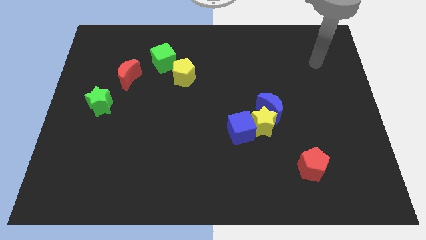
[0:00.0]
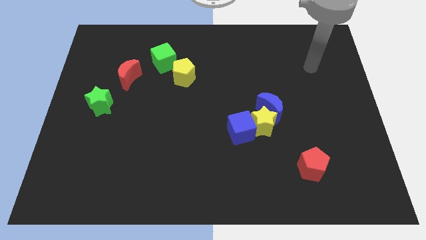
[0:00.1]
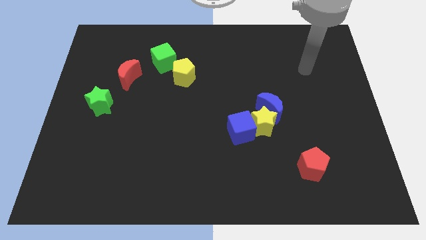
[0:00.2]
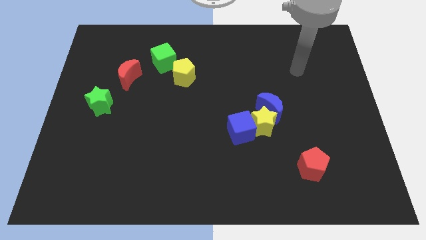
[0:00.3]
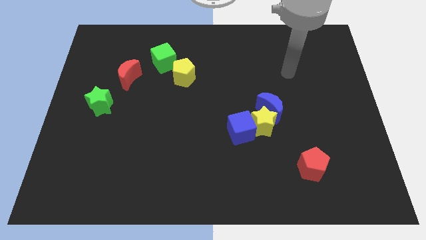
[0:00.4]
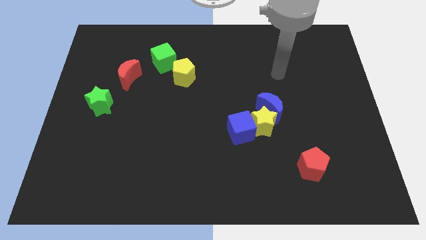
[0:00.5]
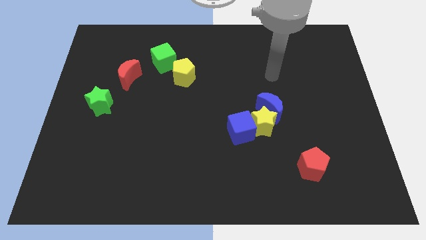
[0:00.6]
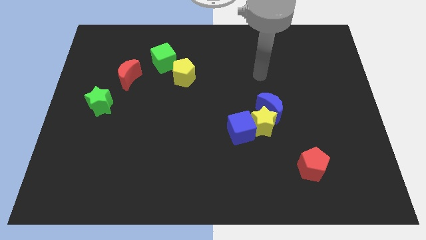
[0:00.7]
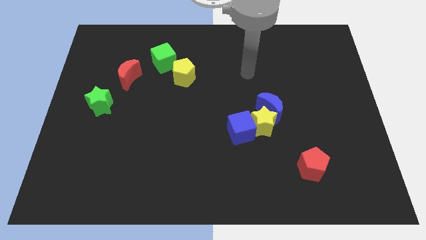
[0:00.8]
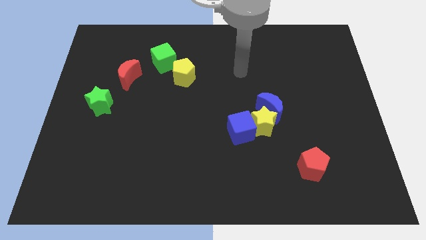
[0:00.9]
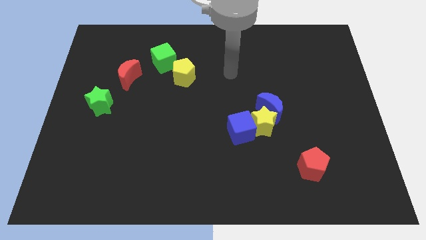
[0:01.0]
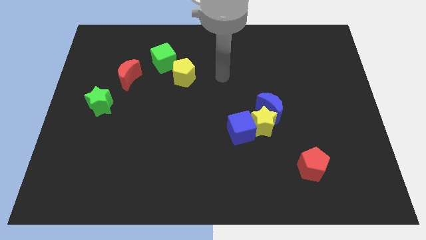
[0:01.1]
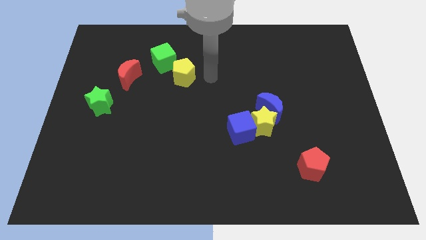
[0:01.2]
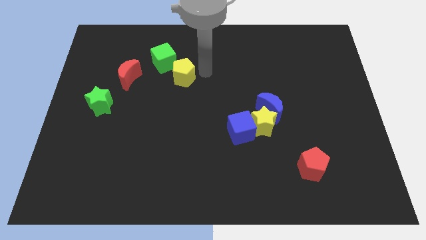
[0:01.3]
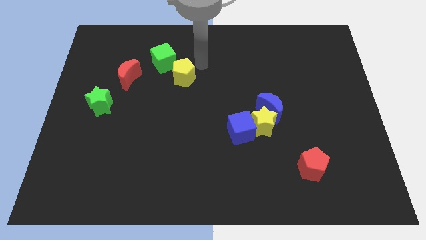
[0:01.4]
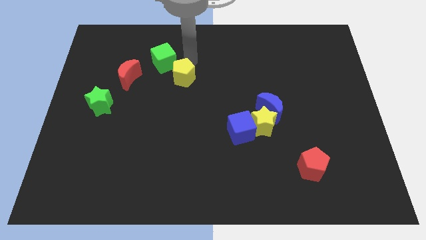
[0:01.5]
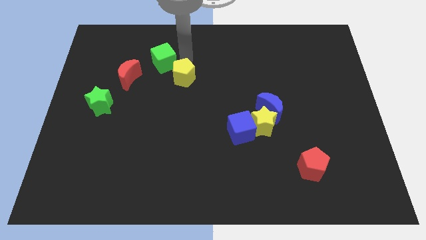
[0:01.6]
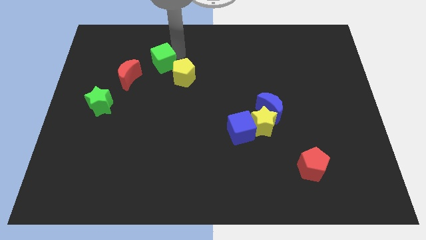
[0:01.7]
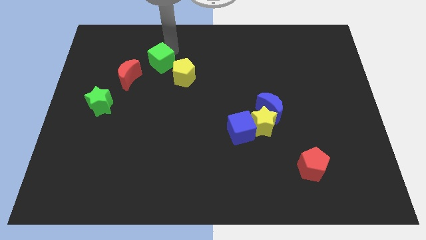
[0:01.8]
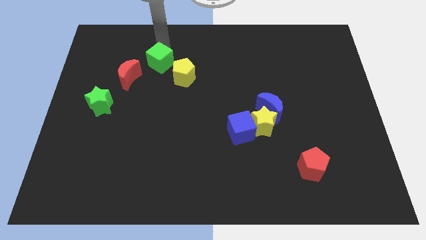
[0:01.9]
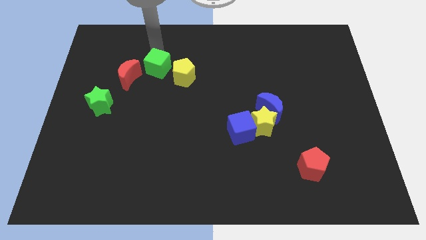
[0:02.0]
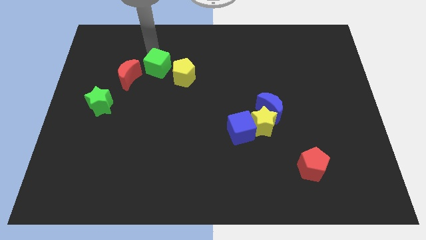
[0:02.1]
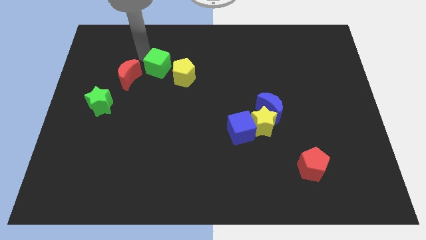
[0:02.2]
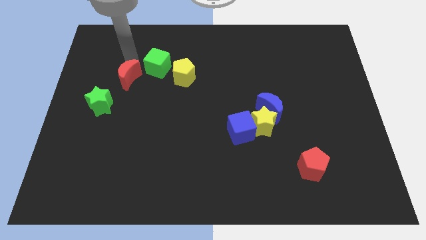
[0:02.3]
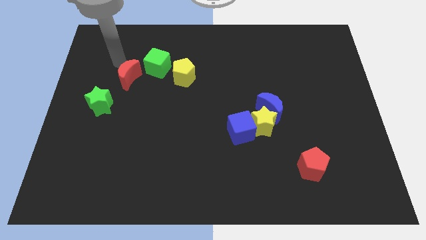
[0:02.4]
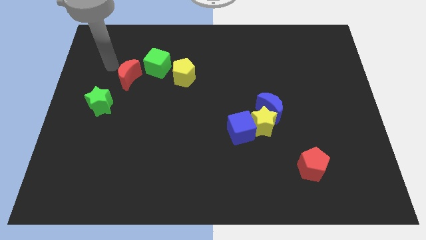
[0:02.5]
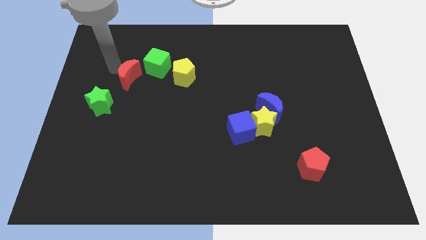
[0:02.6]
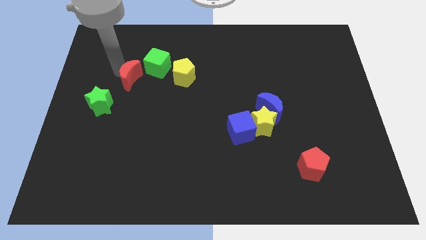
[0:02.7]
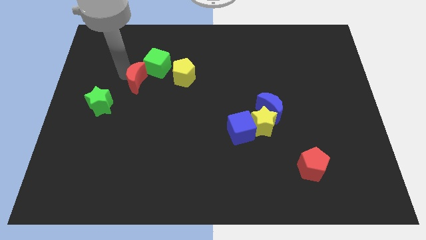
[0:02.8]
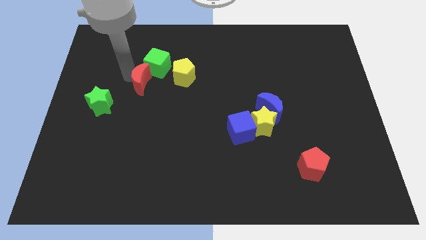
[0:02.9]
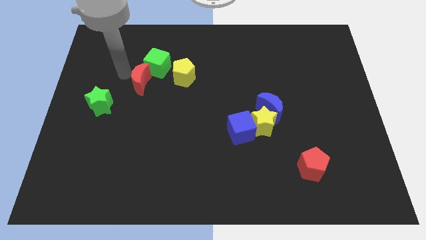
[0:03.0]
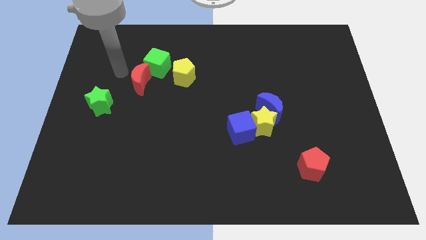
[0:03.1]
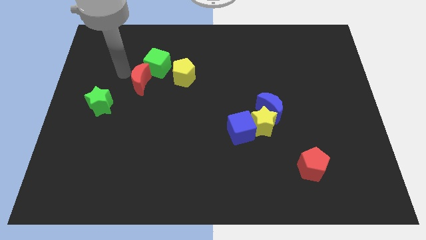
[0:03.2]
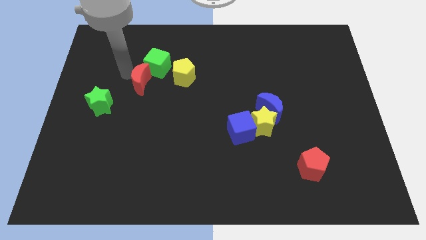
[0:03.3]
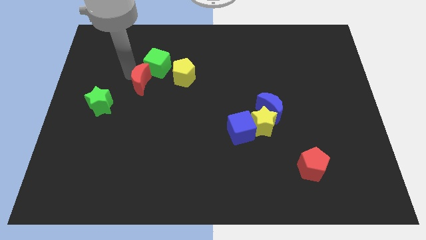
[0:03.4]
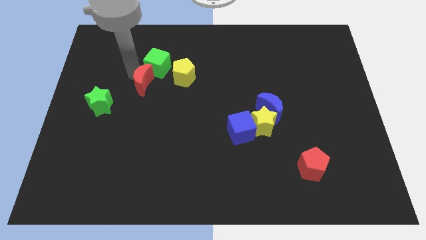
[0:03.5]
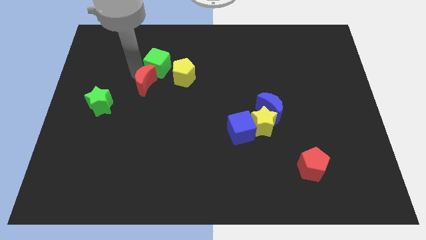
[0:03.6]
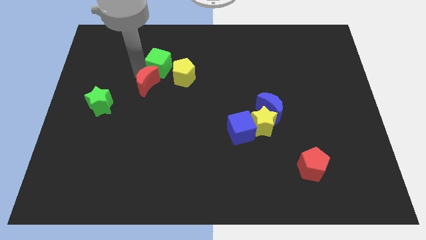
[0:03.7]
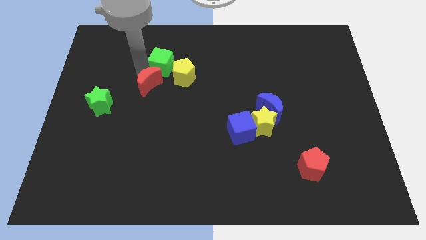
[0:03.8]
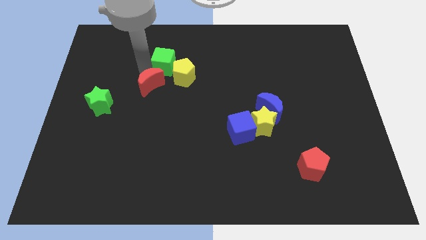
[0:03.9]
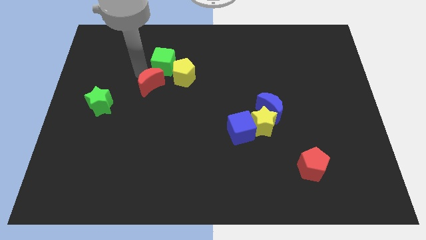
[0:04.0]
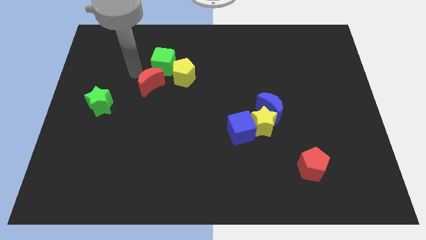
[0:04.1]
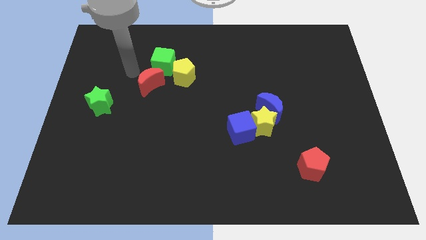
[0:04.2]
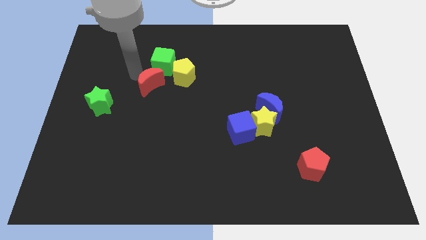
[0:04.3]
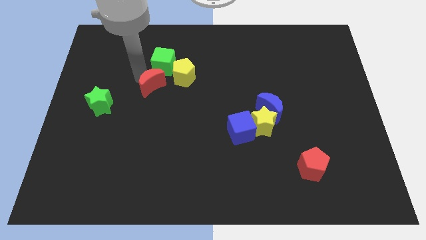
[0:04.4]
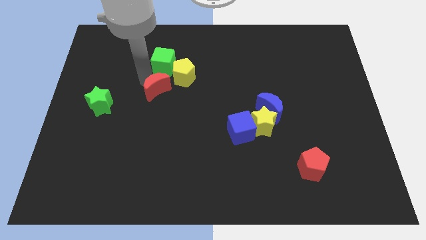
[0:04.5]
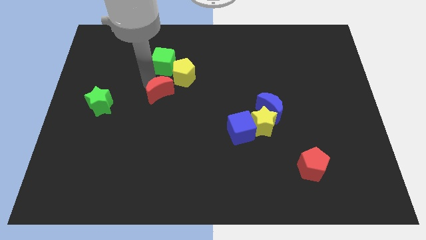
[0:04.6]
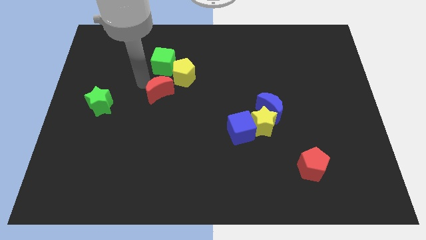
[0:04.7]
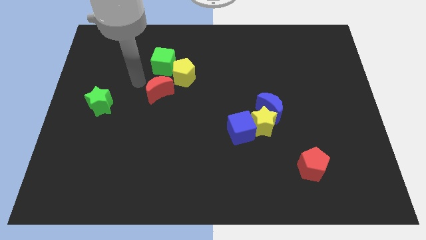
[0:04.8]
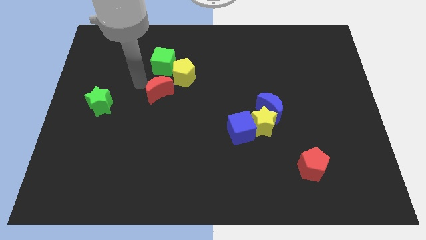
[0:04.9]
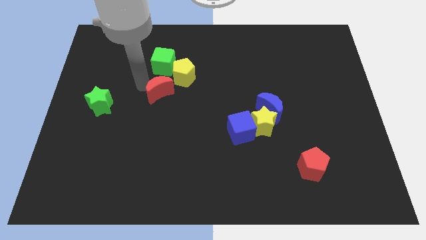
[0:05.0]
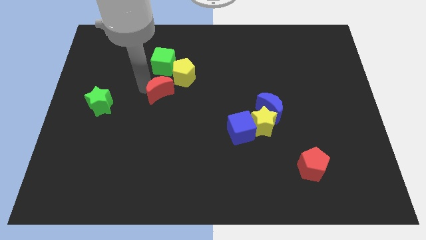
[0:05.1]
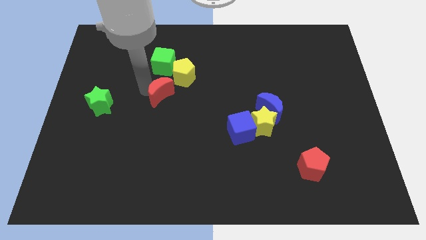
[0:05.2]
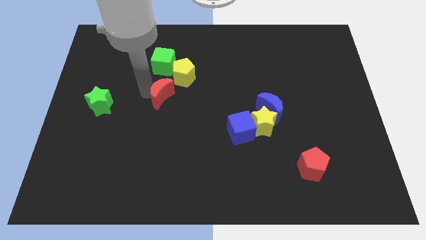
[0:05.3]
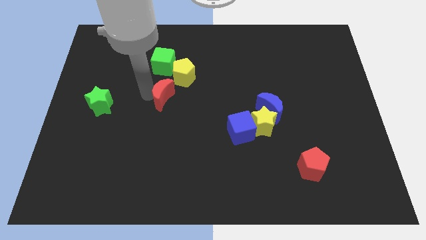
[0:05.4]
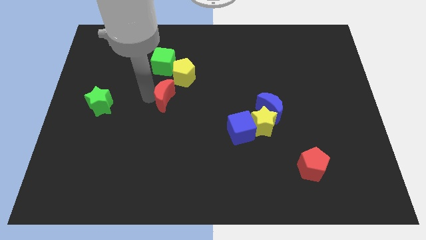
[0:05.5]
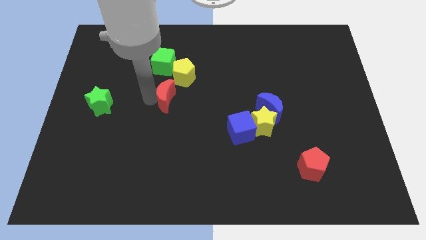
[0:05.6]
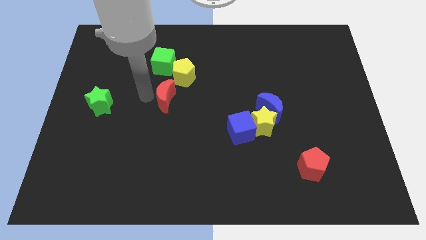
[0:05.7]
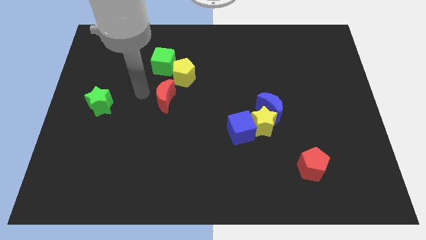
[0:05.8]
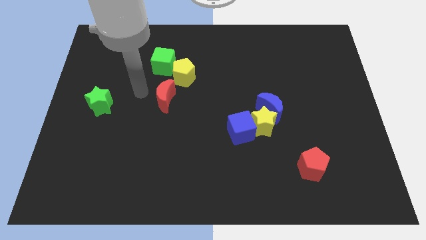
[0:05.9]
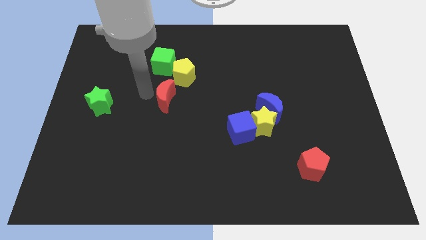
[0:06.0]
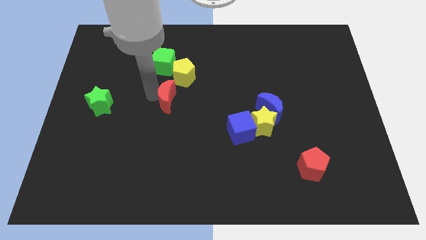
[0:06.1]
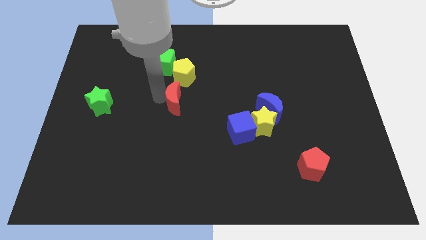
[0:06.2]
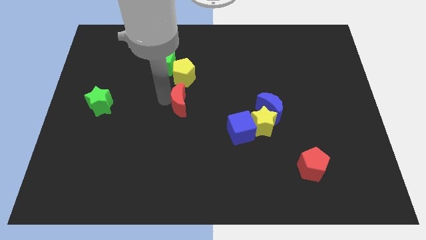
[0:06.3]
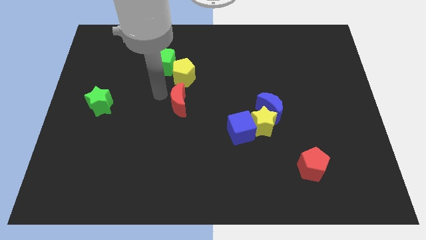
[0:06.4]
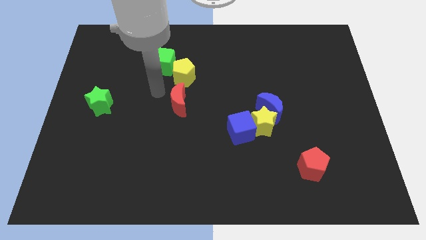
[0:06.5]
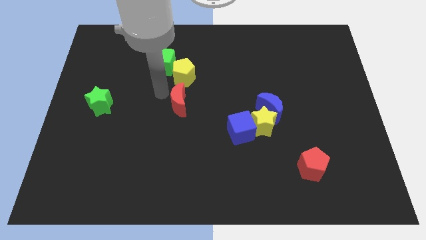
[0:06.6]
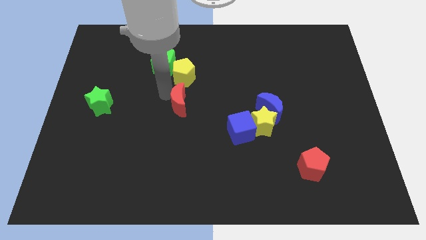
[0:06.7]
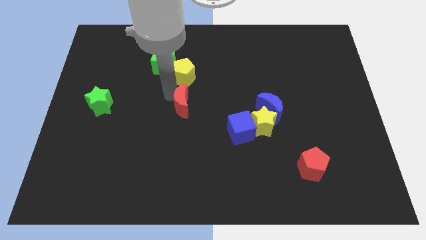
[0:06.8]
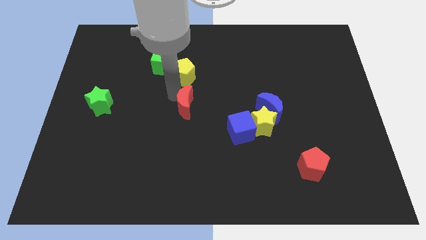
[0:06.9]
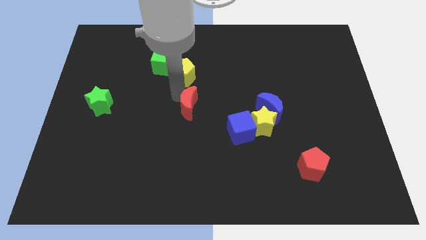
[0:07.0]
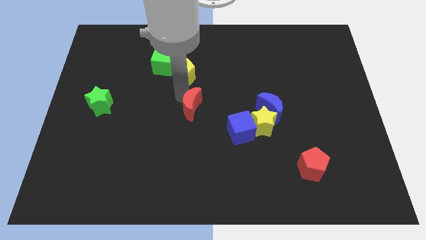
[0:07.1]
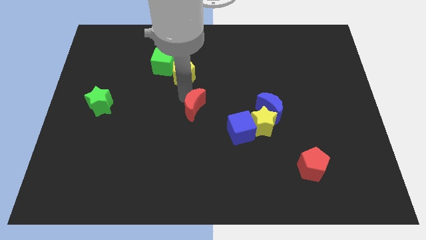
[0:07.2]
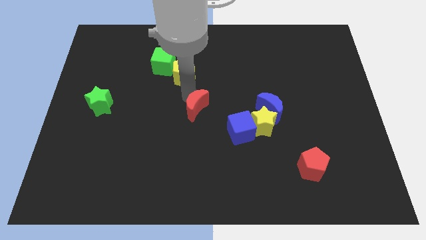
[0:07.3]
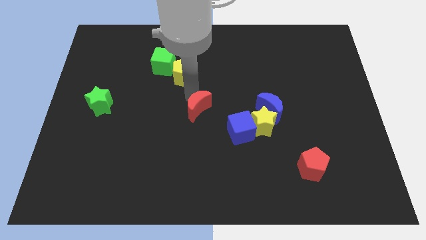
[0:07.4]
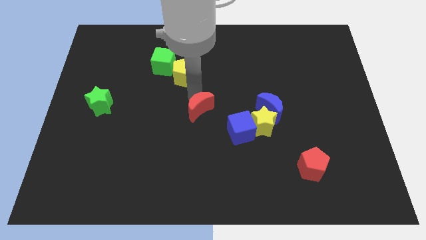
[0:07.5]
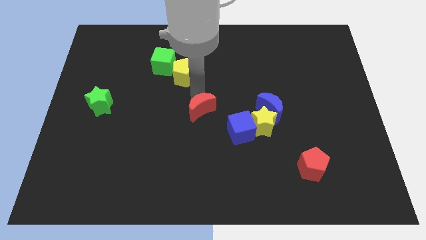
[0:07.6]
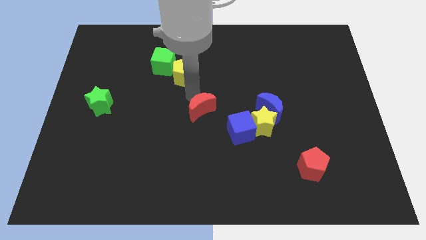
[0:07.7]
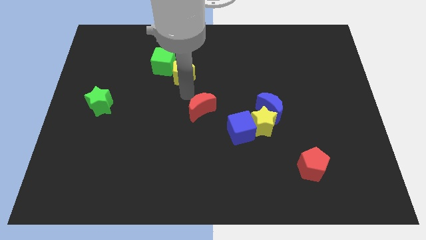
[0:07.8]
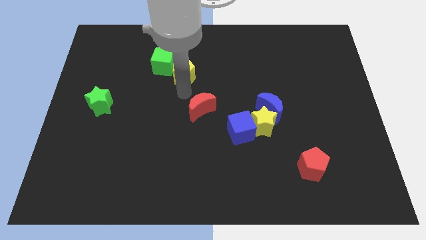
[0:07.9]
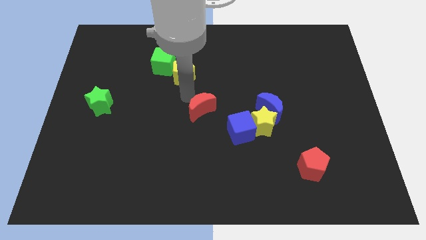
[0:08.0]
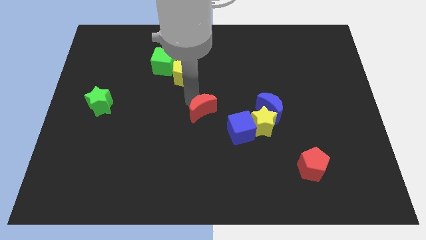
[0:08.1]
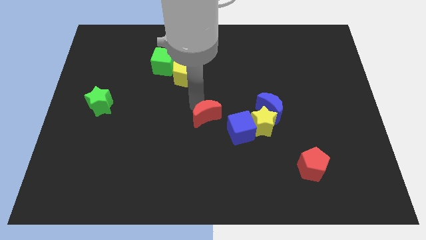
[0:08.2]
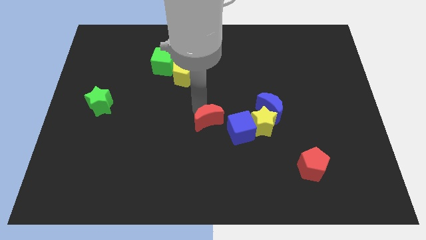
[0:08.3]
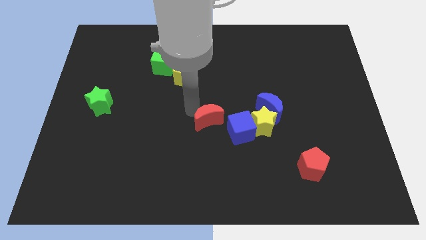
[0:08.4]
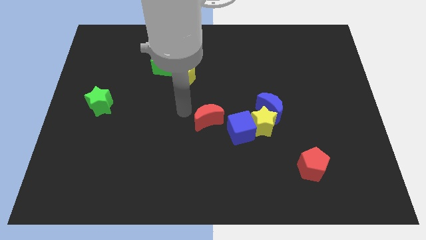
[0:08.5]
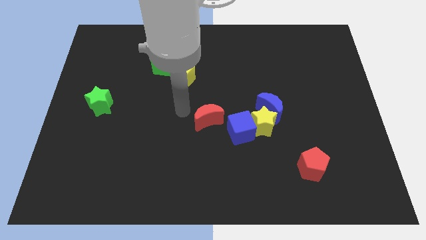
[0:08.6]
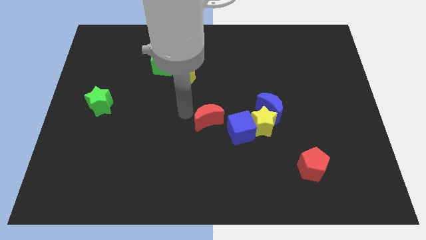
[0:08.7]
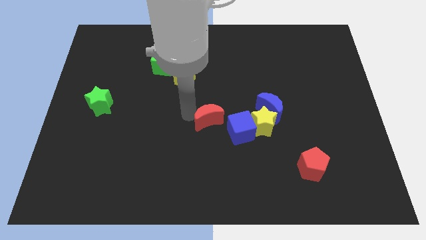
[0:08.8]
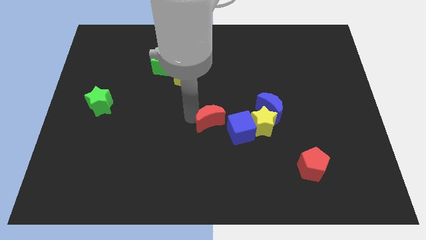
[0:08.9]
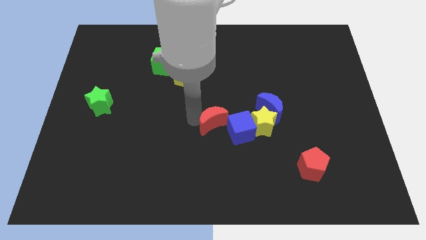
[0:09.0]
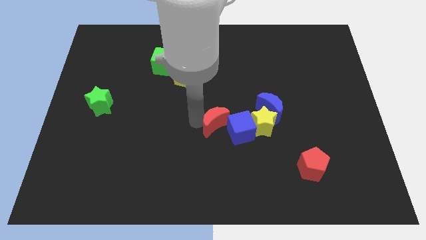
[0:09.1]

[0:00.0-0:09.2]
slide the red moon towards the blue cube
